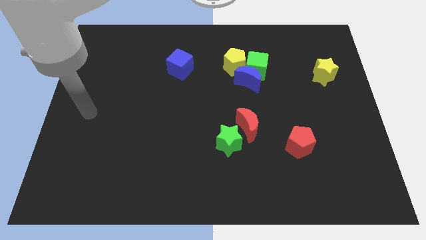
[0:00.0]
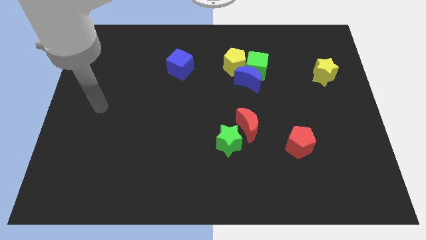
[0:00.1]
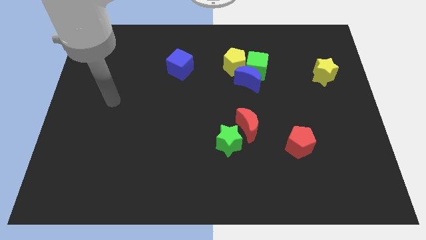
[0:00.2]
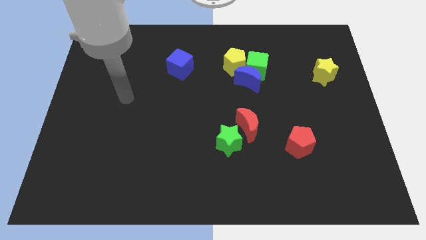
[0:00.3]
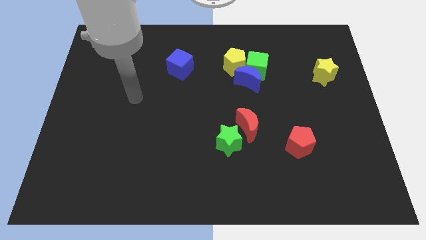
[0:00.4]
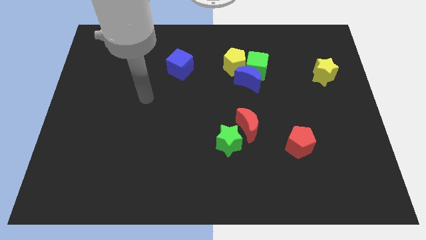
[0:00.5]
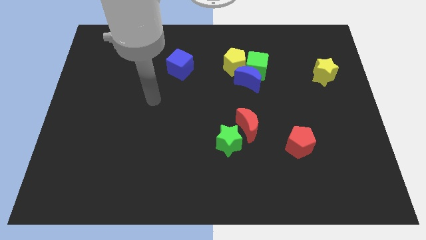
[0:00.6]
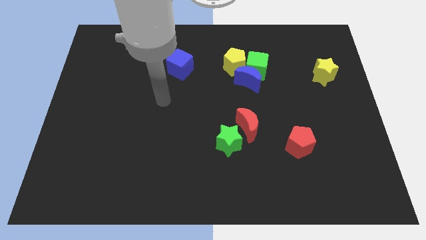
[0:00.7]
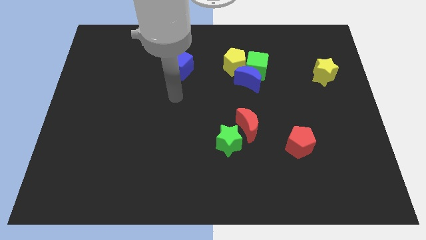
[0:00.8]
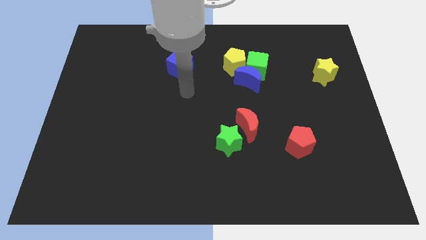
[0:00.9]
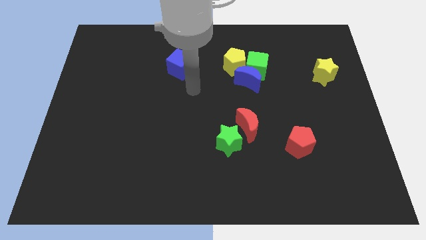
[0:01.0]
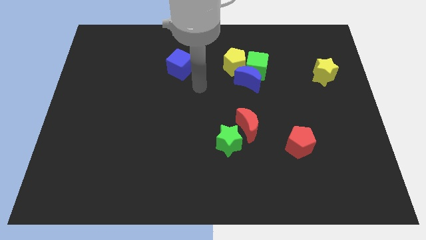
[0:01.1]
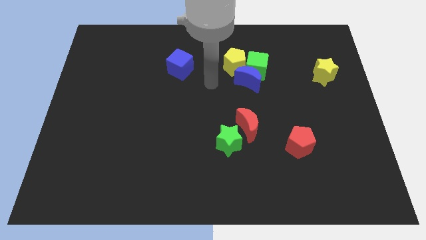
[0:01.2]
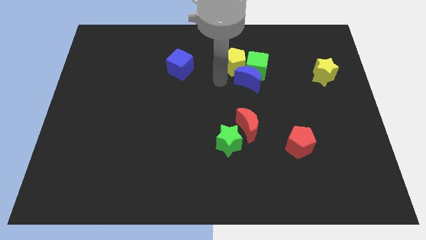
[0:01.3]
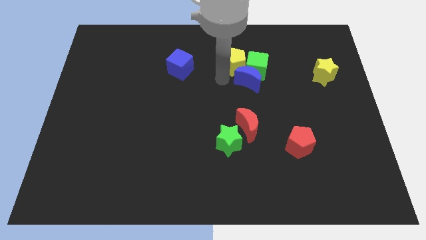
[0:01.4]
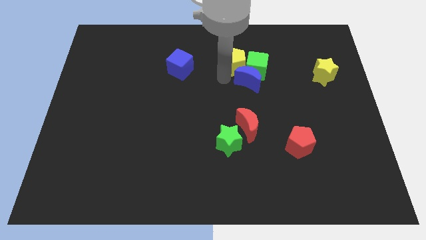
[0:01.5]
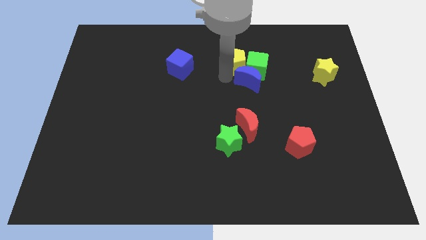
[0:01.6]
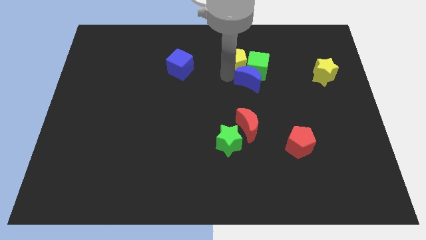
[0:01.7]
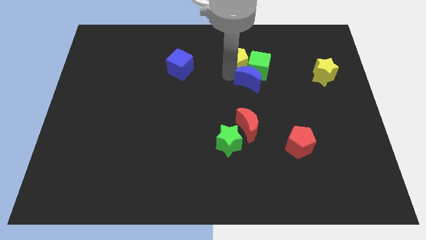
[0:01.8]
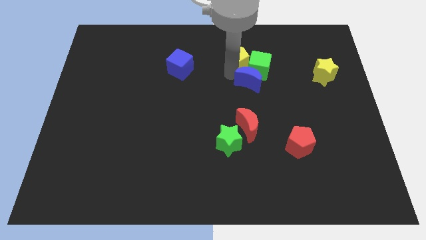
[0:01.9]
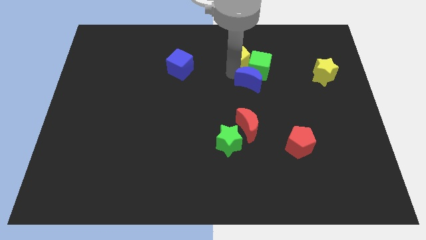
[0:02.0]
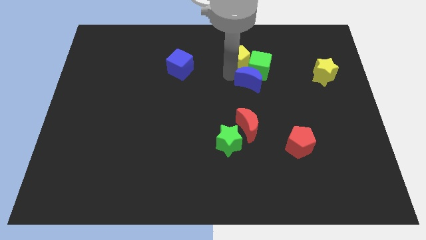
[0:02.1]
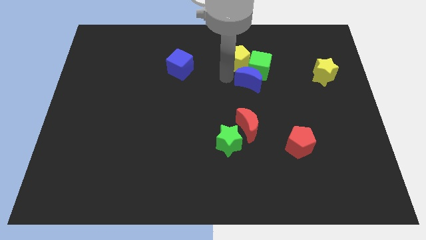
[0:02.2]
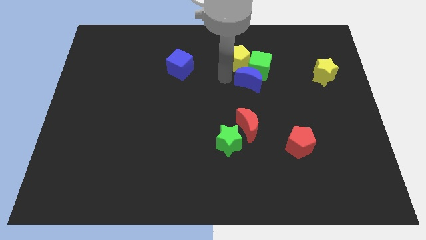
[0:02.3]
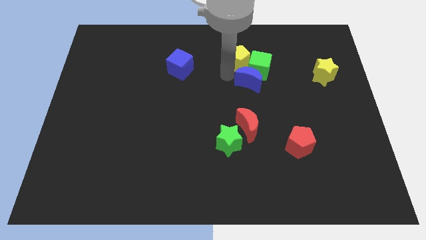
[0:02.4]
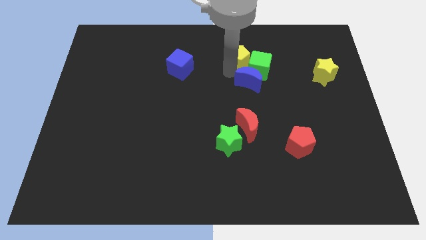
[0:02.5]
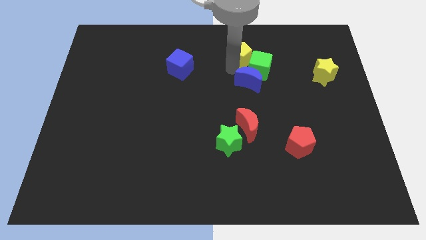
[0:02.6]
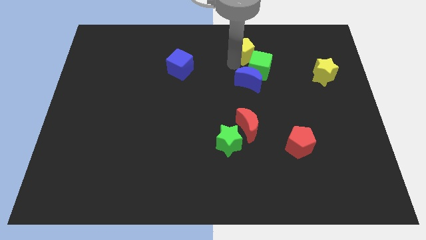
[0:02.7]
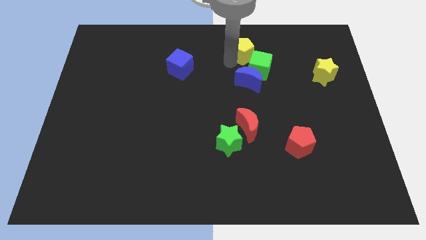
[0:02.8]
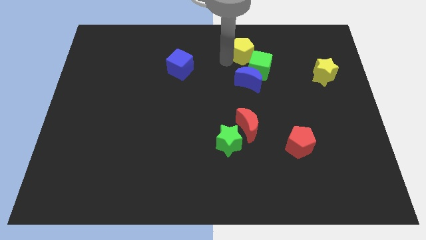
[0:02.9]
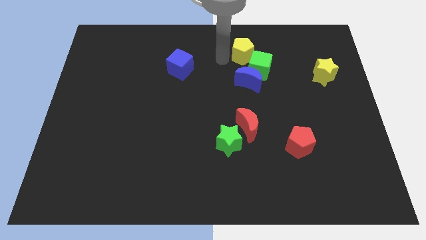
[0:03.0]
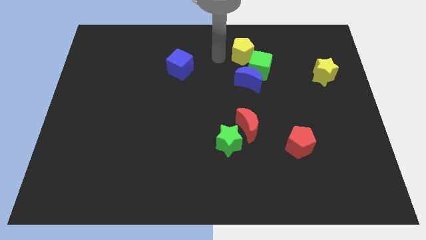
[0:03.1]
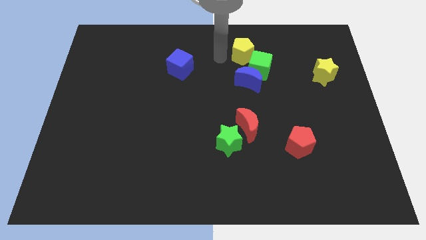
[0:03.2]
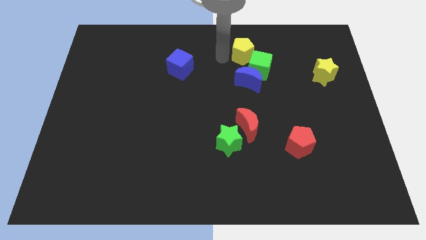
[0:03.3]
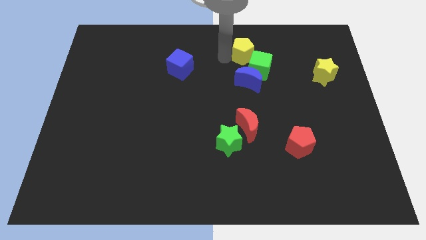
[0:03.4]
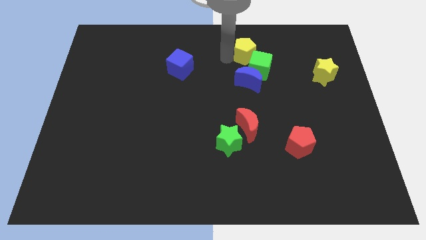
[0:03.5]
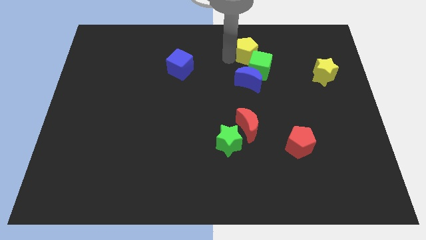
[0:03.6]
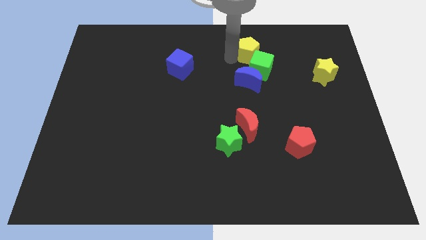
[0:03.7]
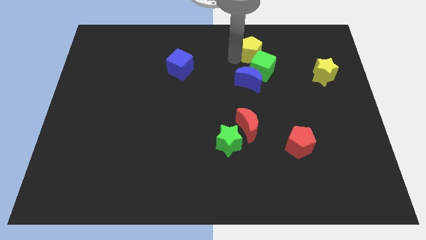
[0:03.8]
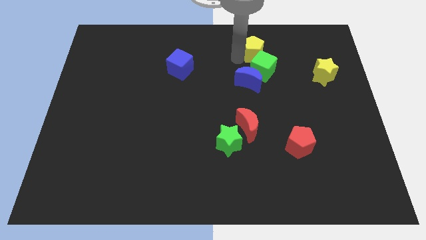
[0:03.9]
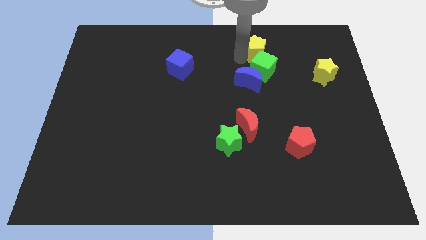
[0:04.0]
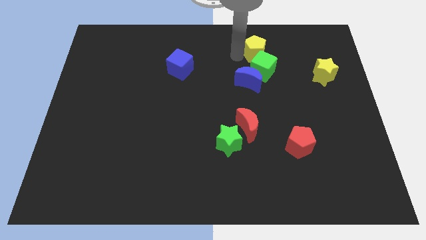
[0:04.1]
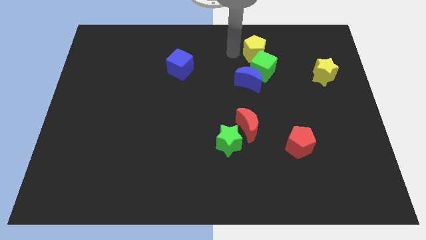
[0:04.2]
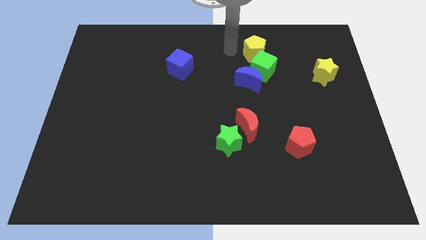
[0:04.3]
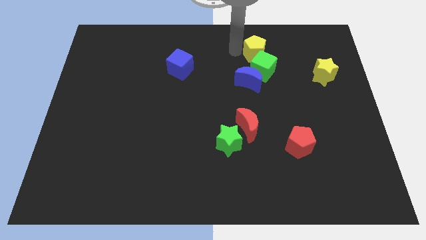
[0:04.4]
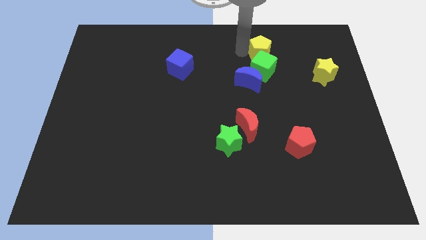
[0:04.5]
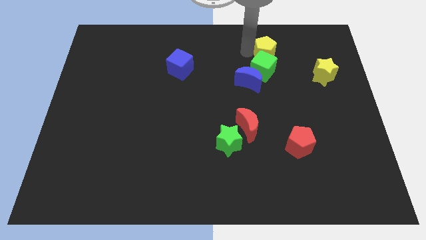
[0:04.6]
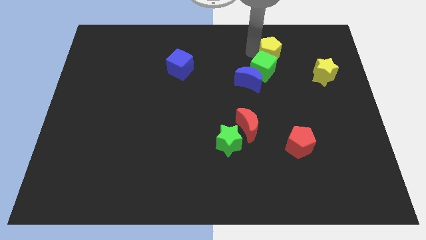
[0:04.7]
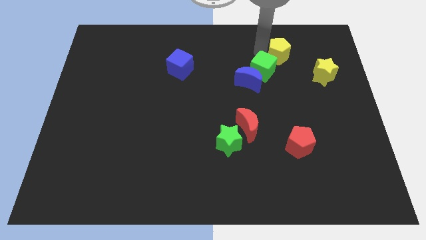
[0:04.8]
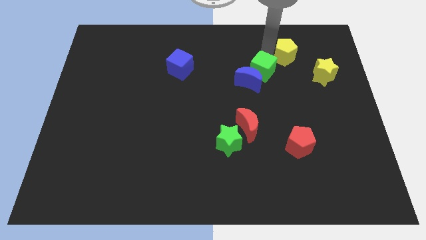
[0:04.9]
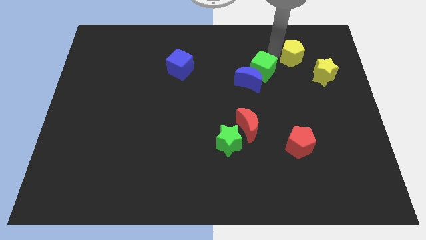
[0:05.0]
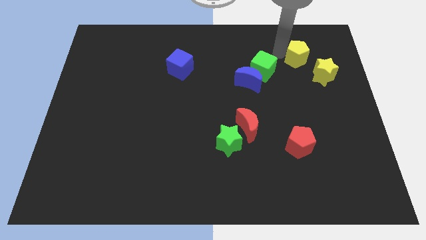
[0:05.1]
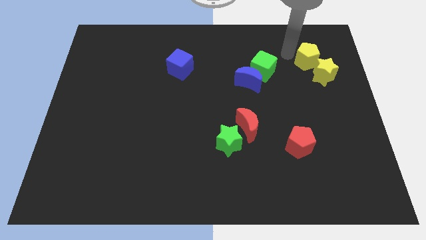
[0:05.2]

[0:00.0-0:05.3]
move the yellow pentagon close to the yellow star

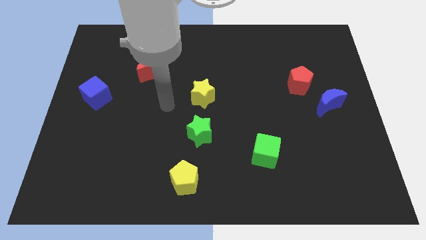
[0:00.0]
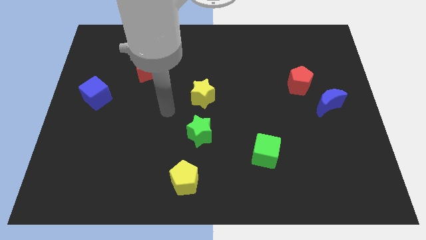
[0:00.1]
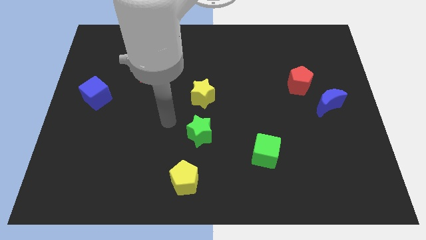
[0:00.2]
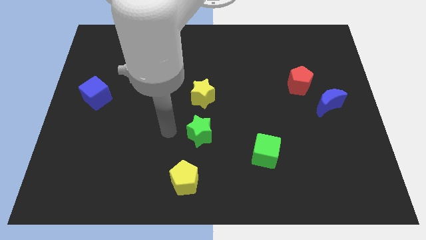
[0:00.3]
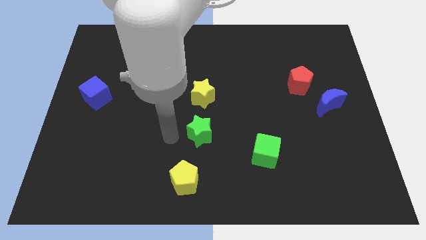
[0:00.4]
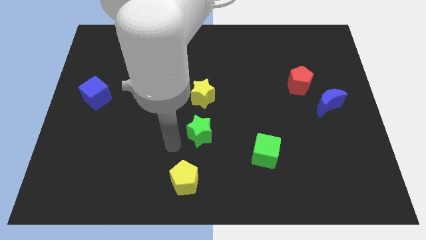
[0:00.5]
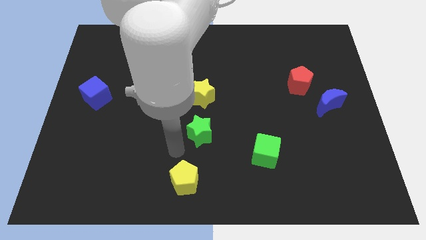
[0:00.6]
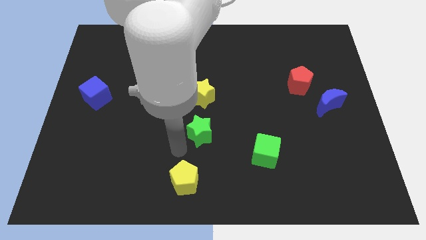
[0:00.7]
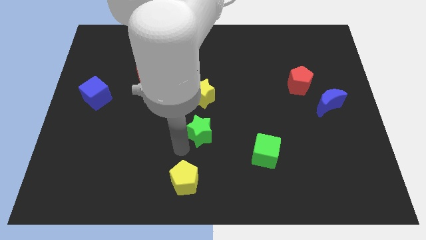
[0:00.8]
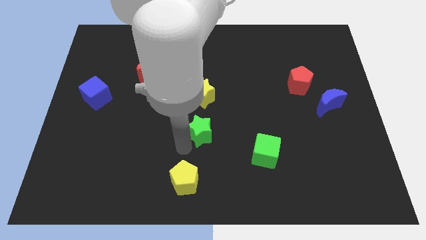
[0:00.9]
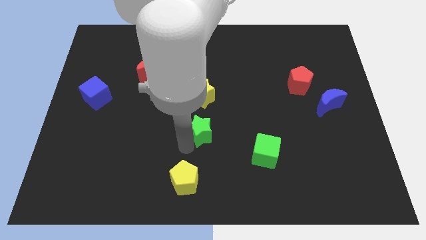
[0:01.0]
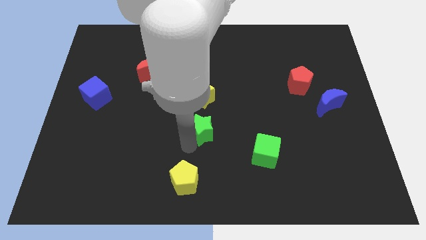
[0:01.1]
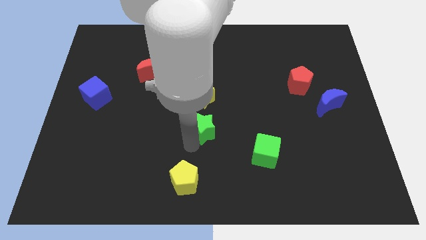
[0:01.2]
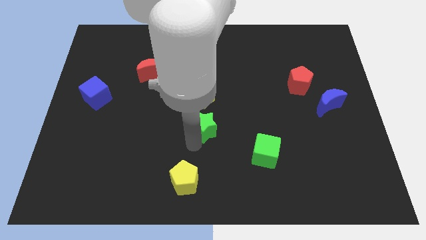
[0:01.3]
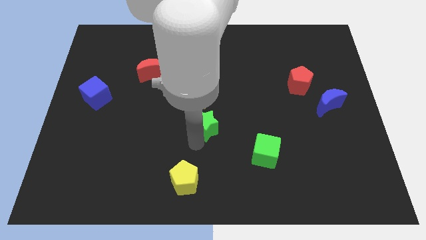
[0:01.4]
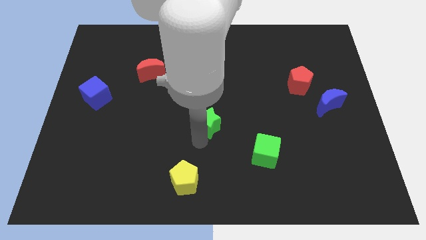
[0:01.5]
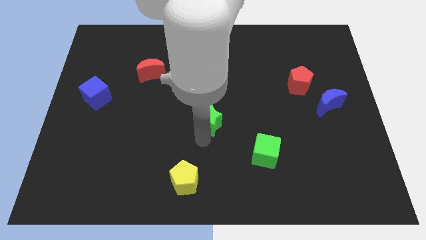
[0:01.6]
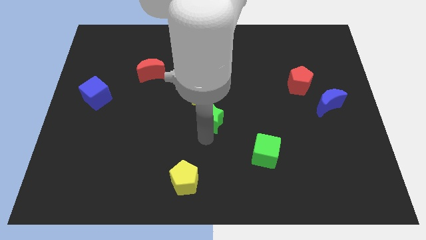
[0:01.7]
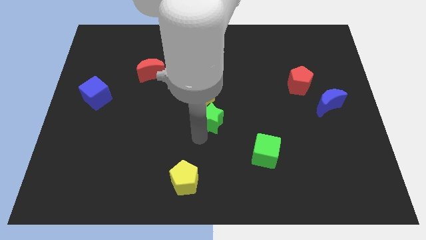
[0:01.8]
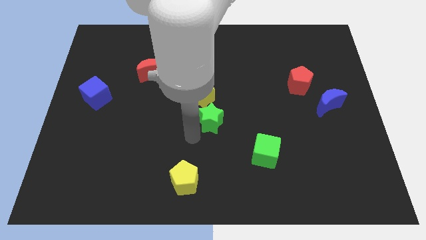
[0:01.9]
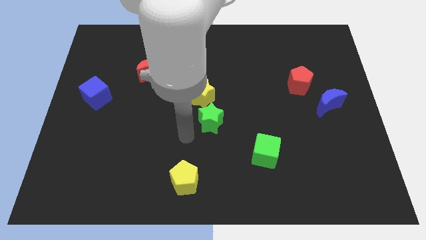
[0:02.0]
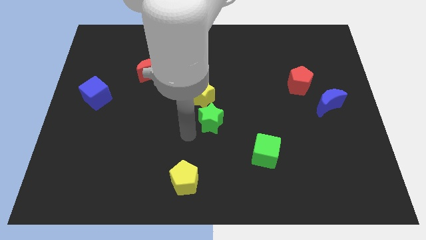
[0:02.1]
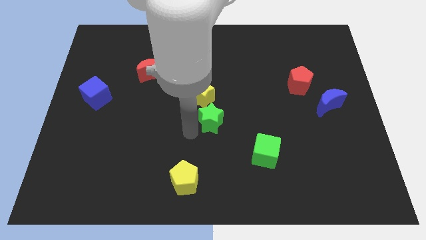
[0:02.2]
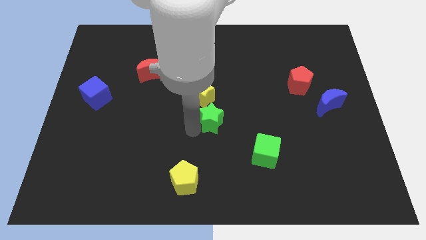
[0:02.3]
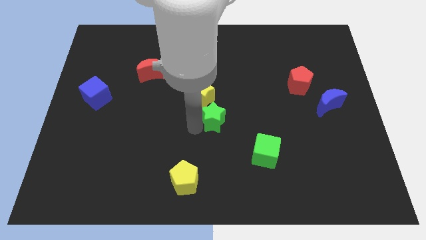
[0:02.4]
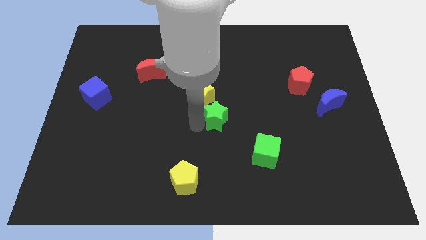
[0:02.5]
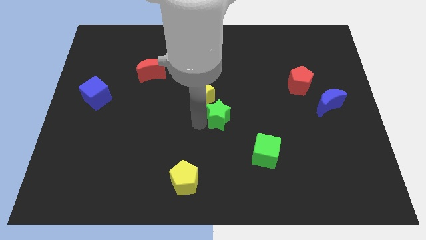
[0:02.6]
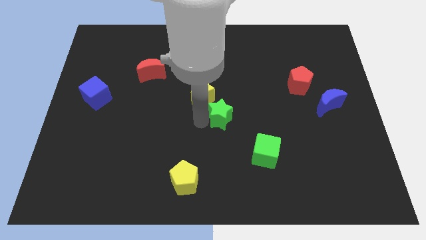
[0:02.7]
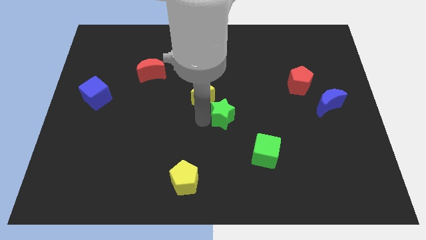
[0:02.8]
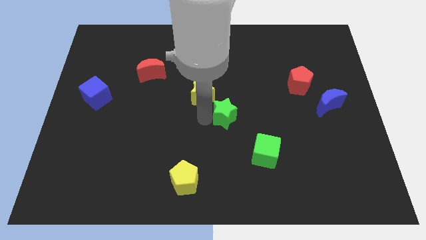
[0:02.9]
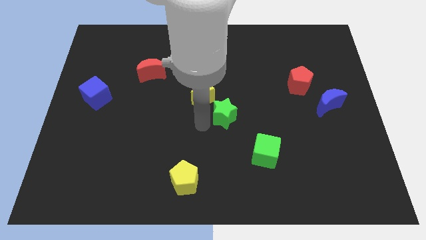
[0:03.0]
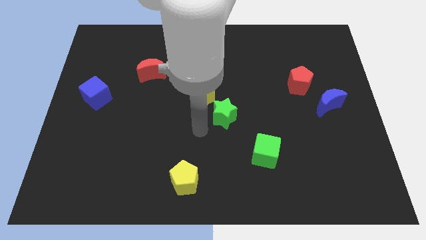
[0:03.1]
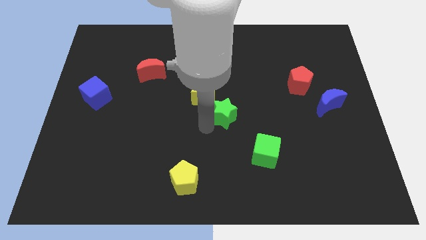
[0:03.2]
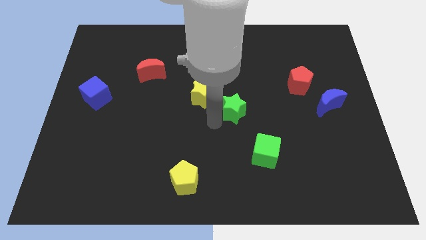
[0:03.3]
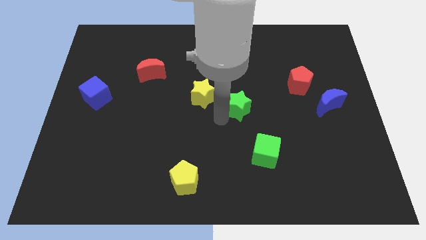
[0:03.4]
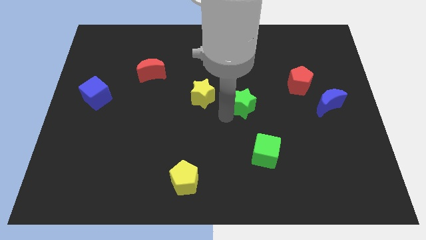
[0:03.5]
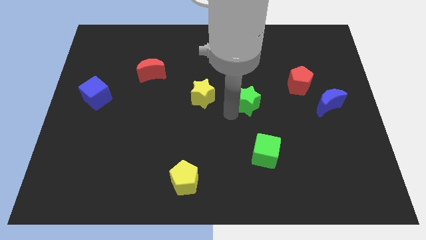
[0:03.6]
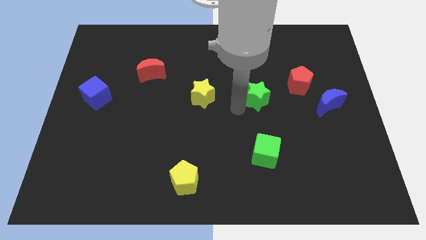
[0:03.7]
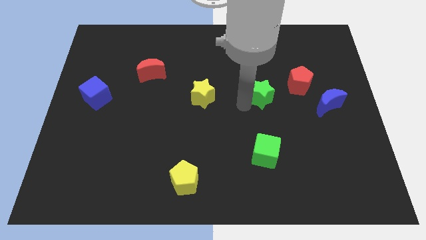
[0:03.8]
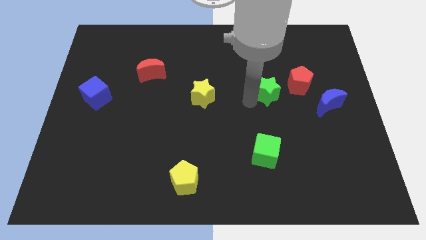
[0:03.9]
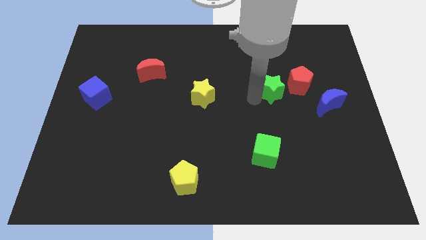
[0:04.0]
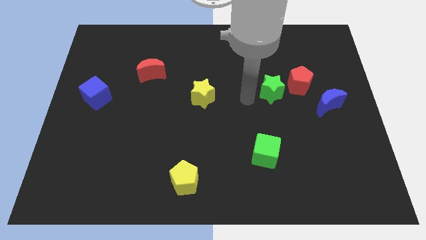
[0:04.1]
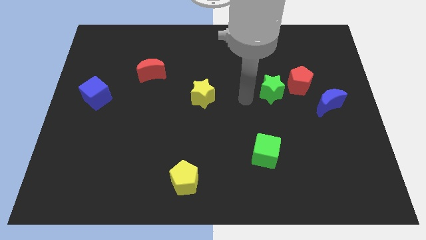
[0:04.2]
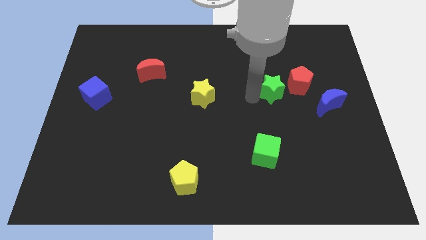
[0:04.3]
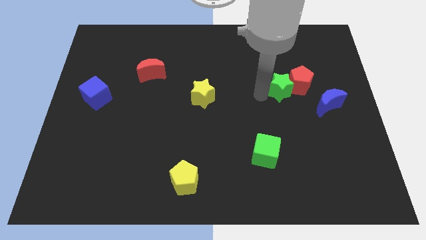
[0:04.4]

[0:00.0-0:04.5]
push the green star close to the red pentagon
